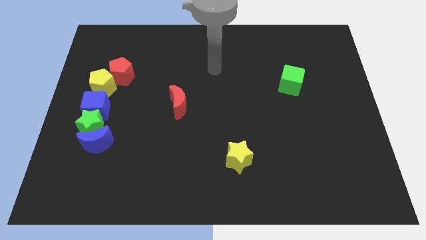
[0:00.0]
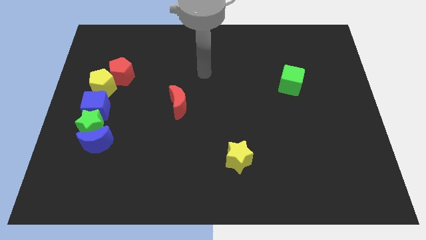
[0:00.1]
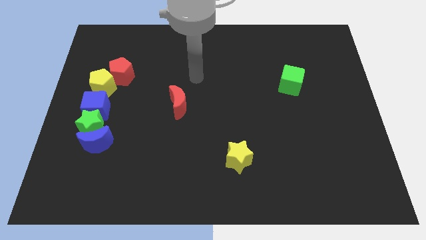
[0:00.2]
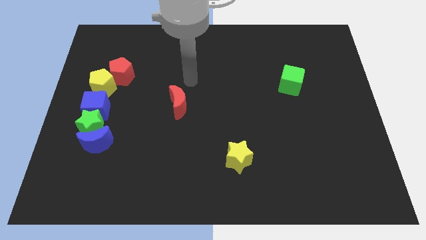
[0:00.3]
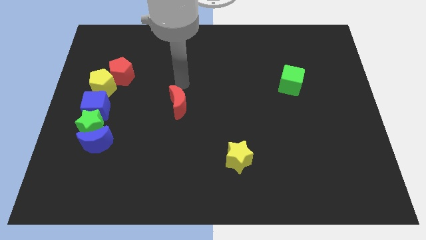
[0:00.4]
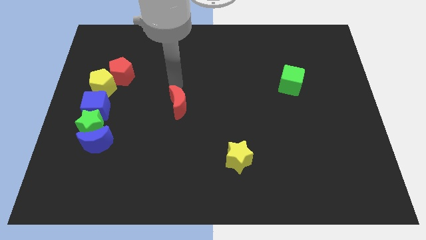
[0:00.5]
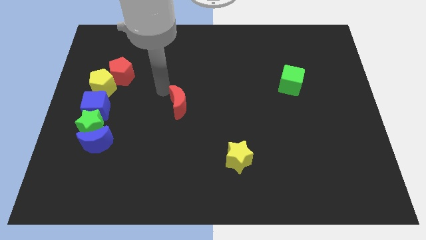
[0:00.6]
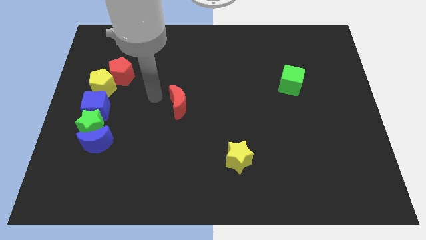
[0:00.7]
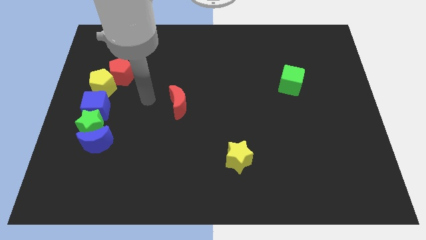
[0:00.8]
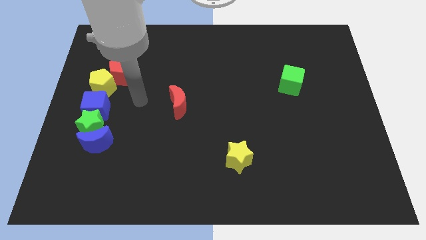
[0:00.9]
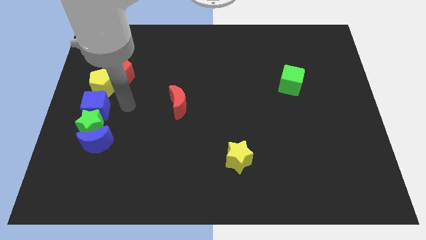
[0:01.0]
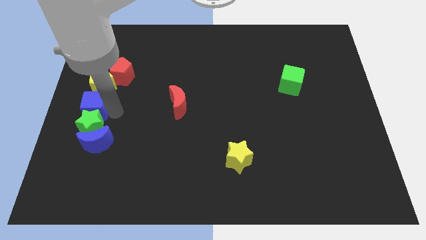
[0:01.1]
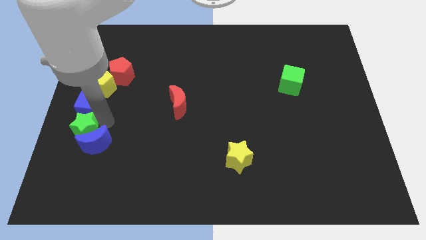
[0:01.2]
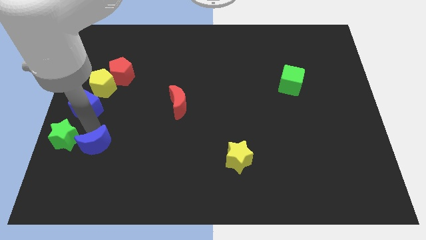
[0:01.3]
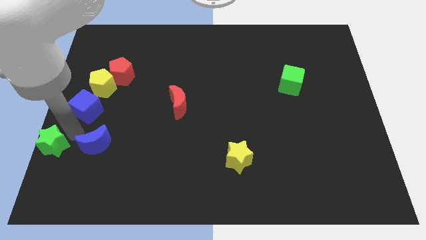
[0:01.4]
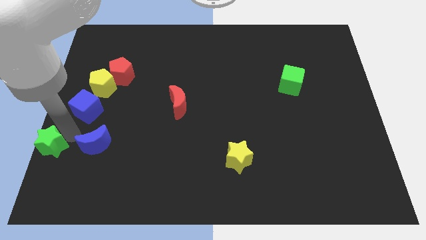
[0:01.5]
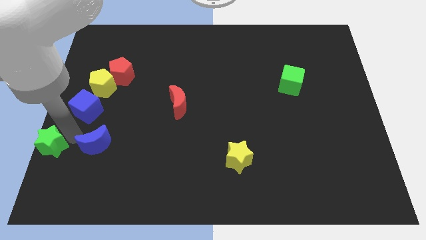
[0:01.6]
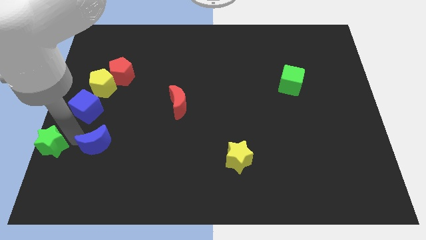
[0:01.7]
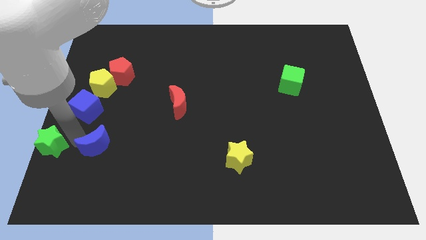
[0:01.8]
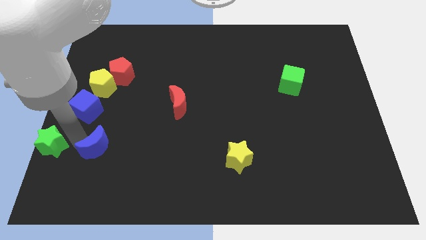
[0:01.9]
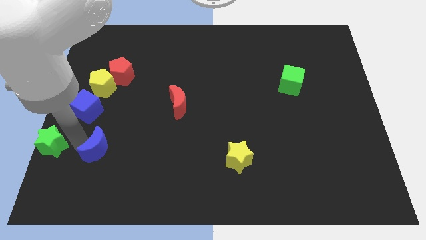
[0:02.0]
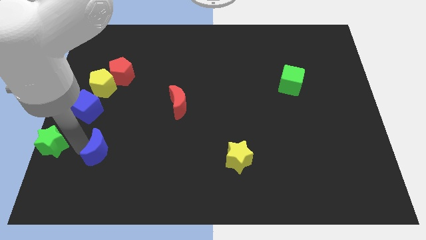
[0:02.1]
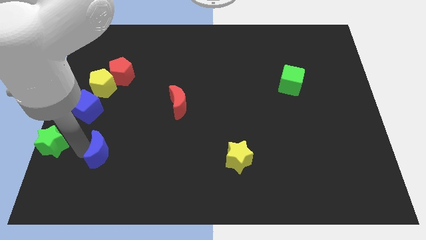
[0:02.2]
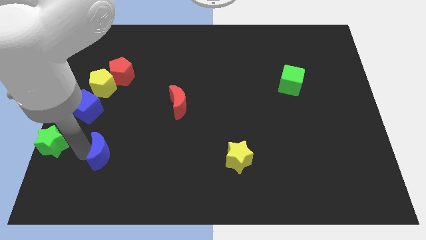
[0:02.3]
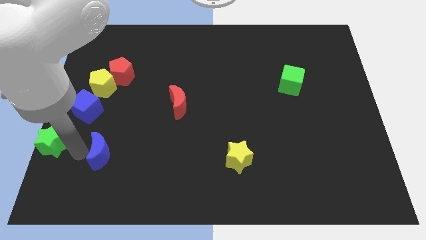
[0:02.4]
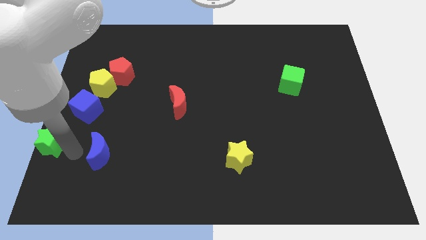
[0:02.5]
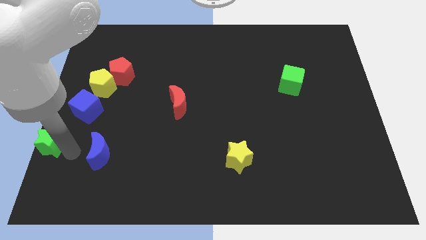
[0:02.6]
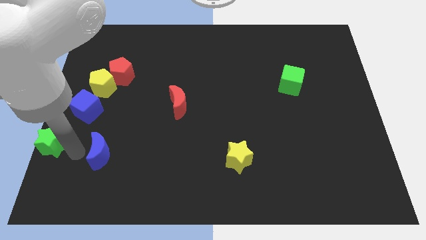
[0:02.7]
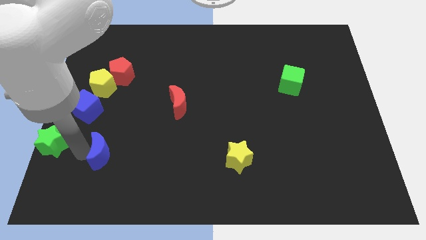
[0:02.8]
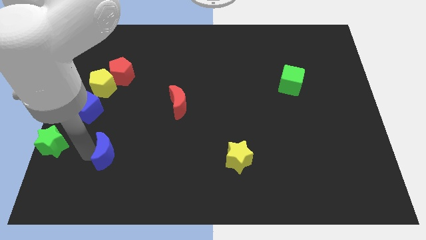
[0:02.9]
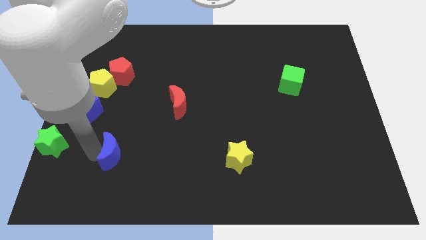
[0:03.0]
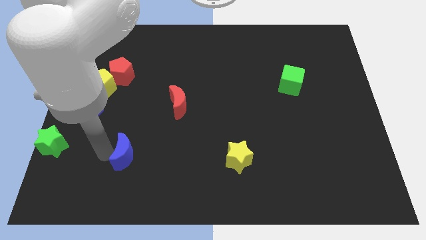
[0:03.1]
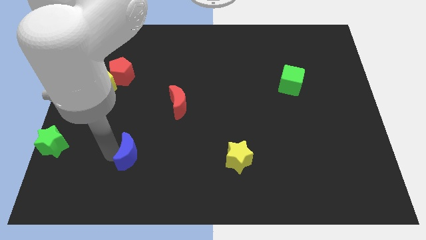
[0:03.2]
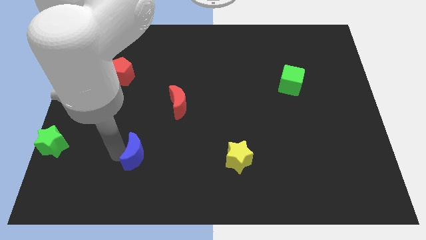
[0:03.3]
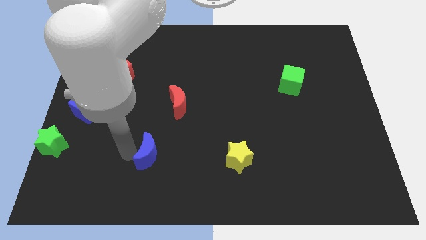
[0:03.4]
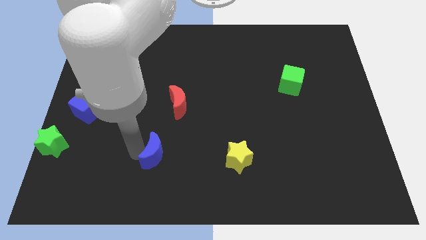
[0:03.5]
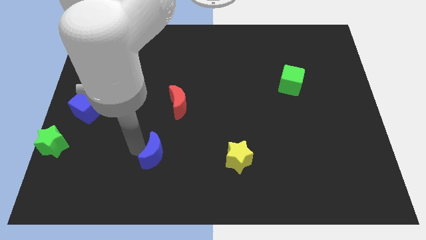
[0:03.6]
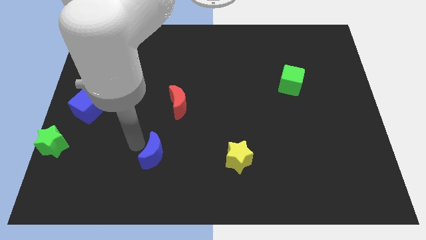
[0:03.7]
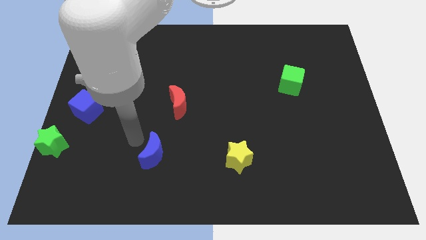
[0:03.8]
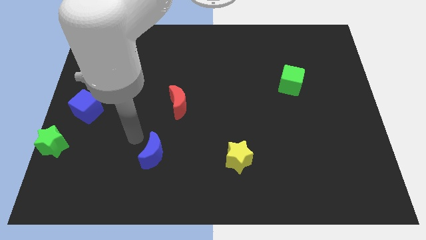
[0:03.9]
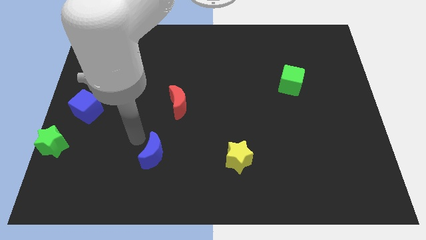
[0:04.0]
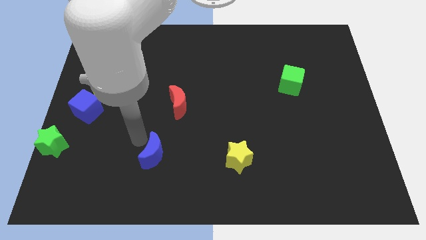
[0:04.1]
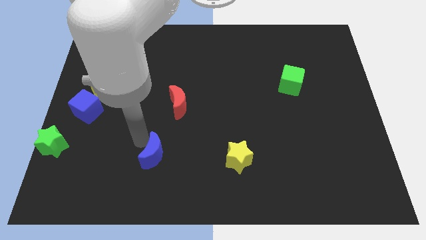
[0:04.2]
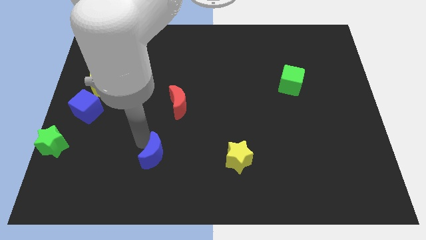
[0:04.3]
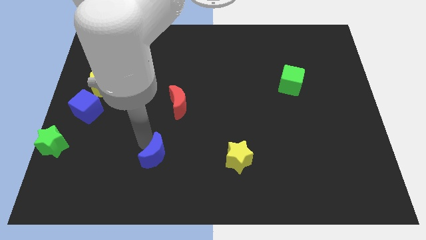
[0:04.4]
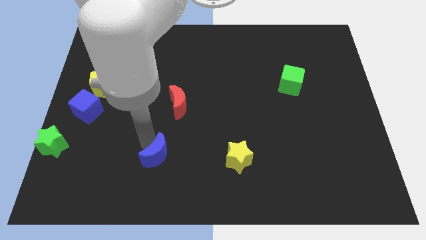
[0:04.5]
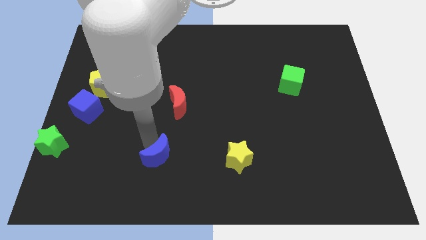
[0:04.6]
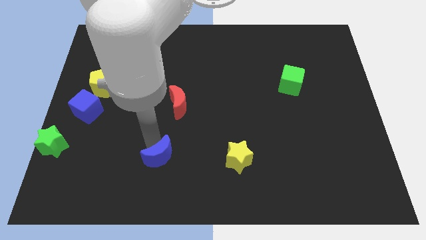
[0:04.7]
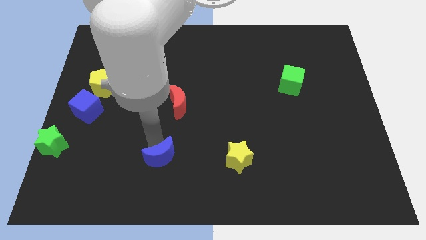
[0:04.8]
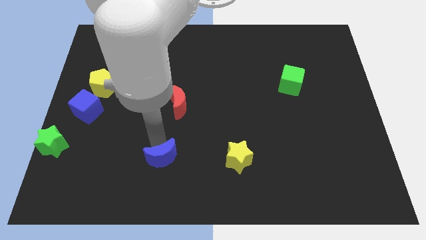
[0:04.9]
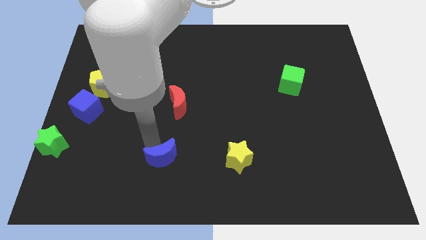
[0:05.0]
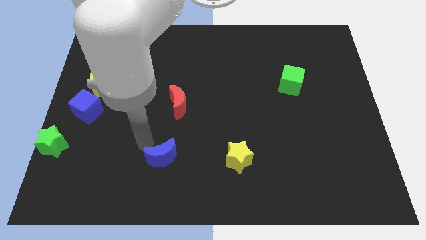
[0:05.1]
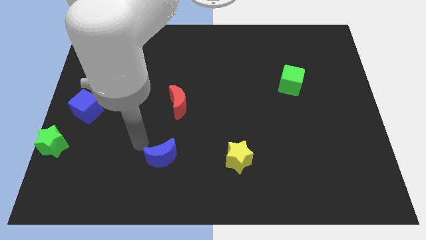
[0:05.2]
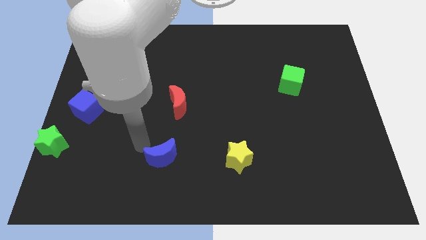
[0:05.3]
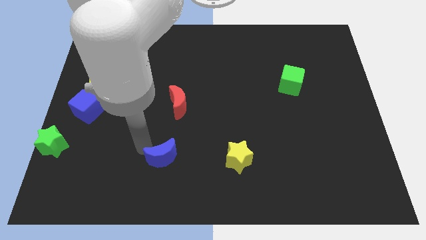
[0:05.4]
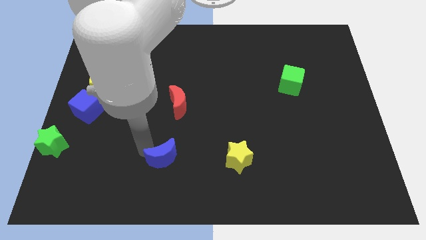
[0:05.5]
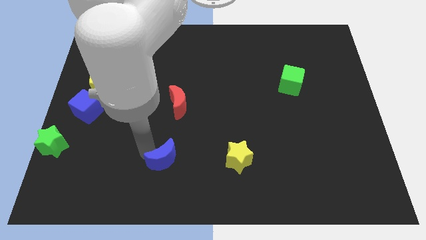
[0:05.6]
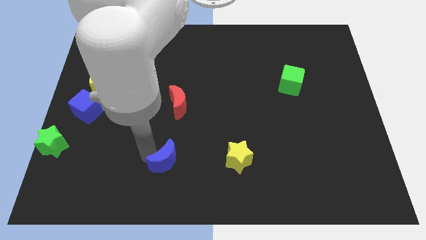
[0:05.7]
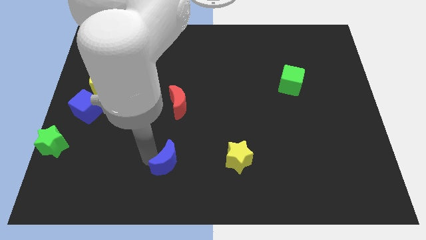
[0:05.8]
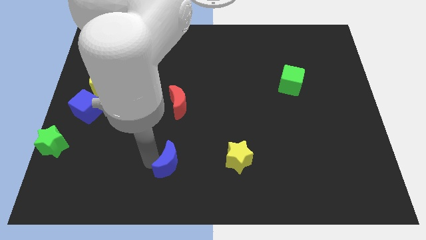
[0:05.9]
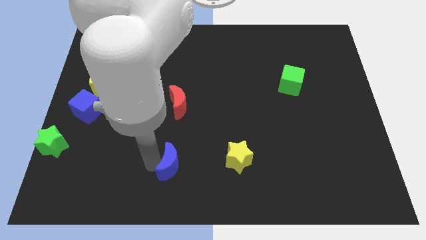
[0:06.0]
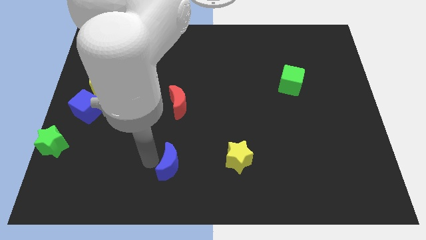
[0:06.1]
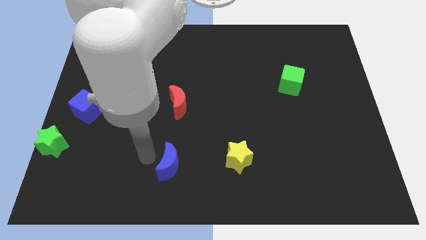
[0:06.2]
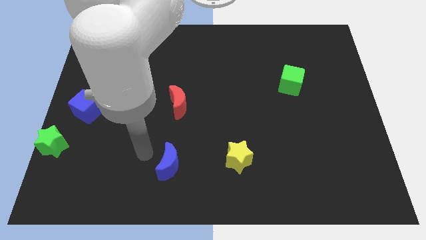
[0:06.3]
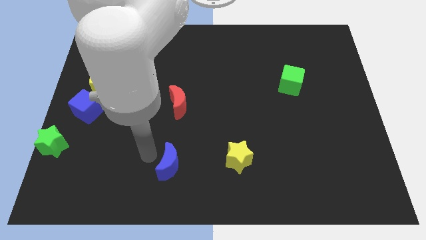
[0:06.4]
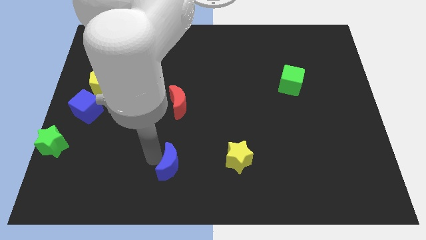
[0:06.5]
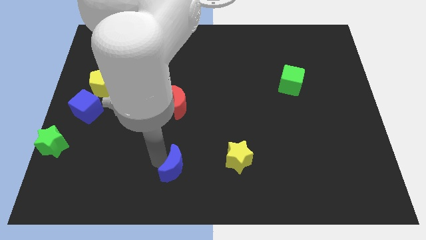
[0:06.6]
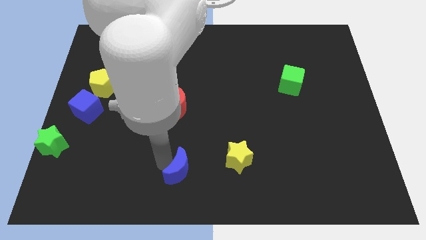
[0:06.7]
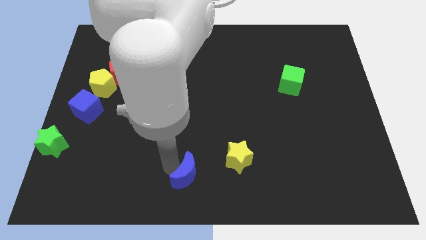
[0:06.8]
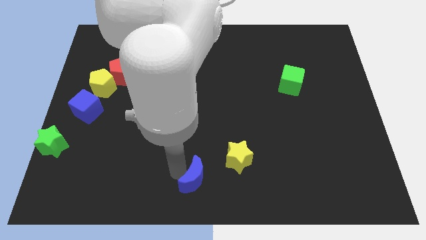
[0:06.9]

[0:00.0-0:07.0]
put the blue moon to the bottom left of the yellow star

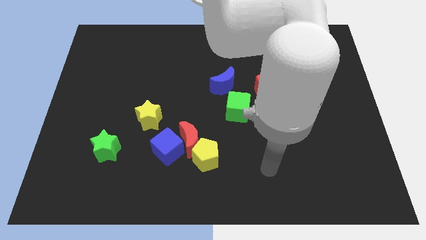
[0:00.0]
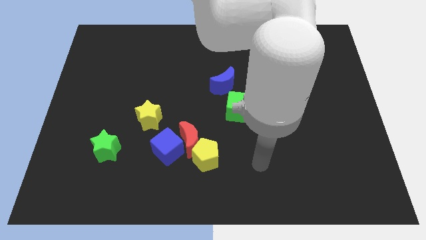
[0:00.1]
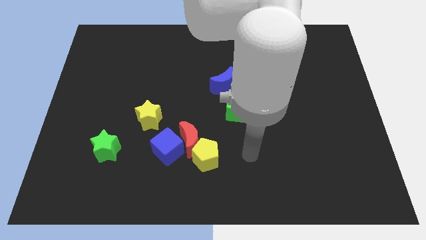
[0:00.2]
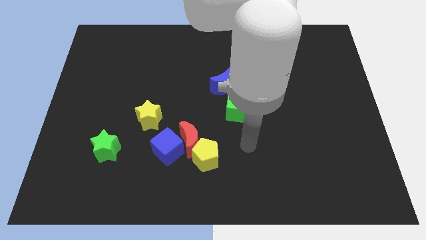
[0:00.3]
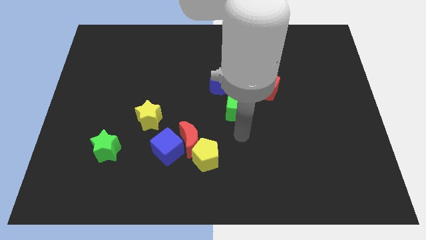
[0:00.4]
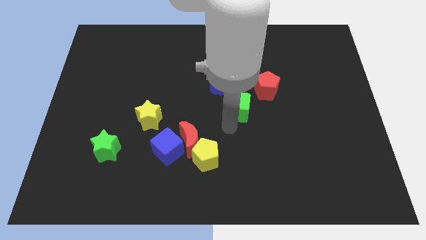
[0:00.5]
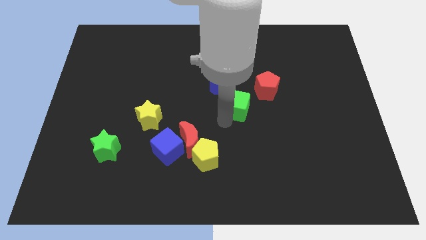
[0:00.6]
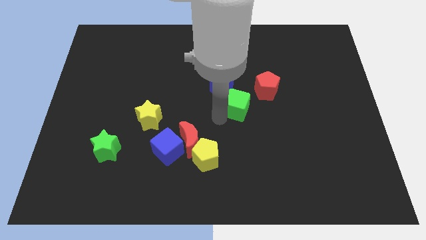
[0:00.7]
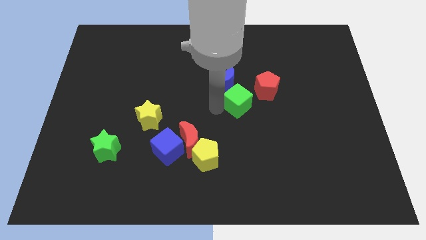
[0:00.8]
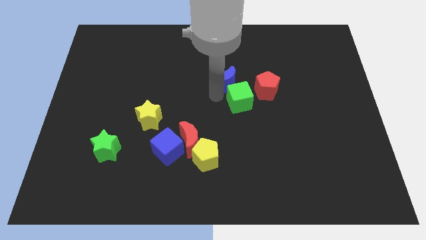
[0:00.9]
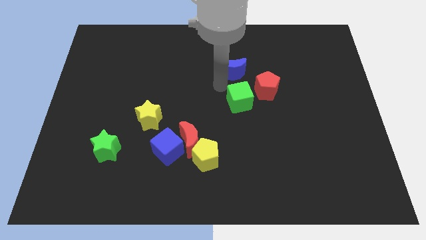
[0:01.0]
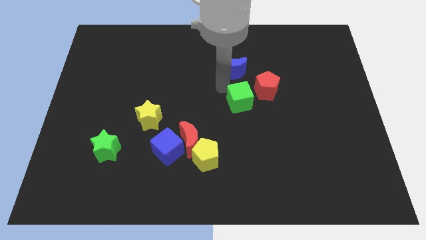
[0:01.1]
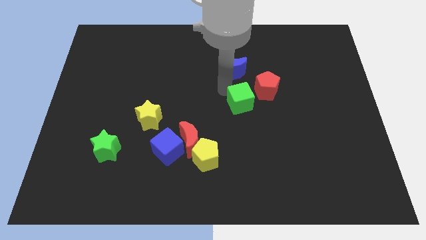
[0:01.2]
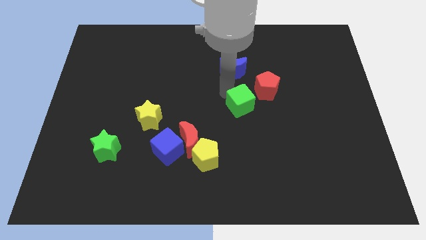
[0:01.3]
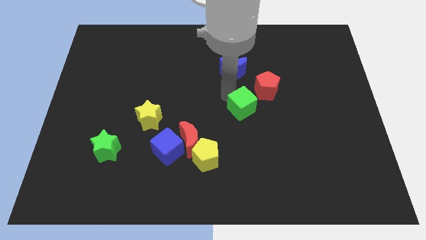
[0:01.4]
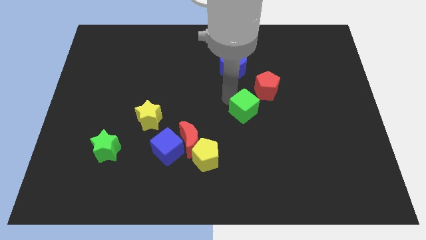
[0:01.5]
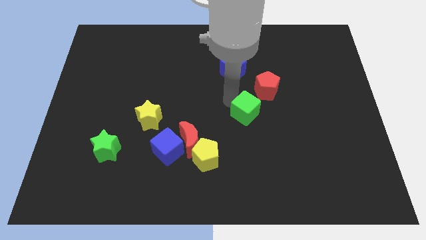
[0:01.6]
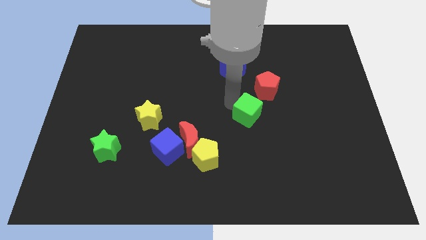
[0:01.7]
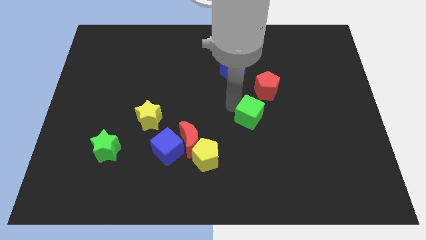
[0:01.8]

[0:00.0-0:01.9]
slide the green cube to the bottom side of the red pentagon

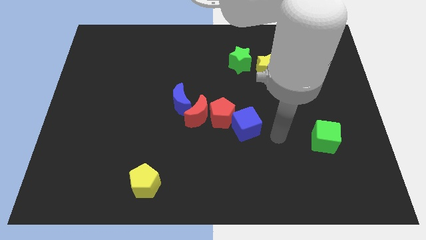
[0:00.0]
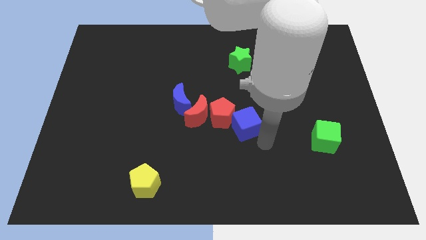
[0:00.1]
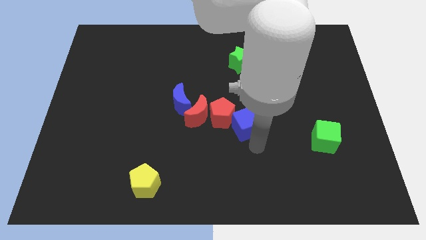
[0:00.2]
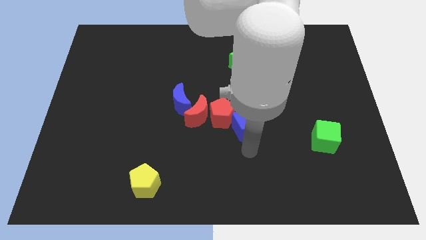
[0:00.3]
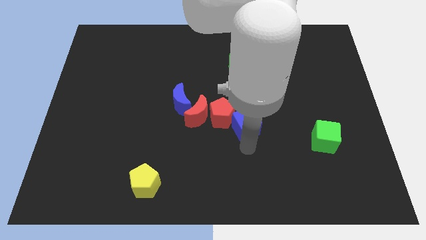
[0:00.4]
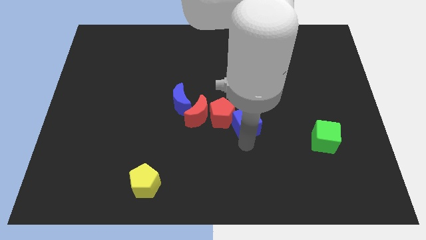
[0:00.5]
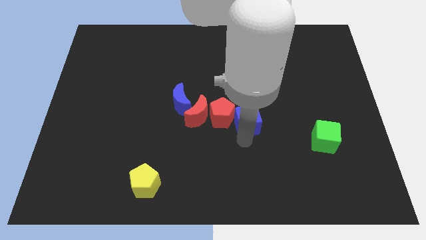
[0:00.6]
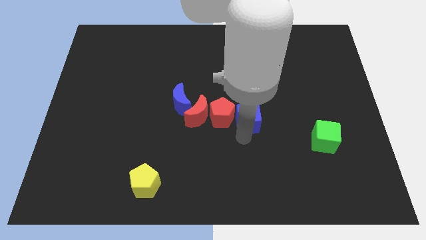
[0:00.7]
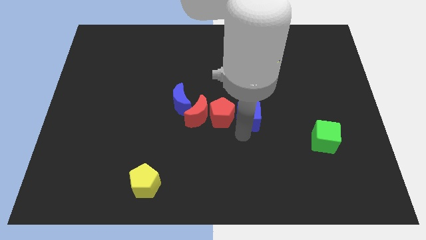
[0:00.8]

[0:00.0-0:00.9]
push the blue cube to the top right side of the red pentagon
